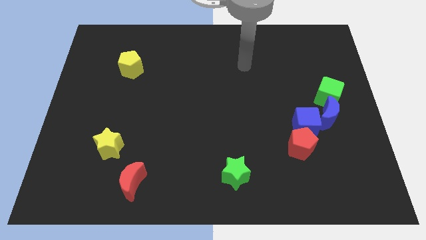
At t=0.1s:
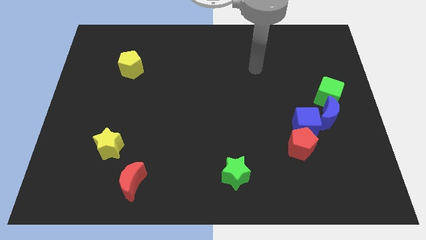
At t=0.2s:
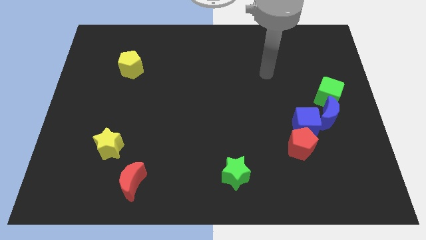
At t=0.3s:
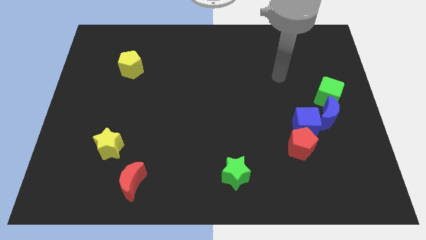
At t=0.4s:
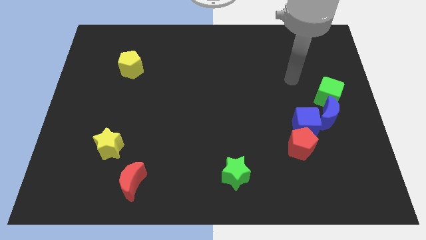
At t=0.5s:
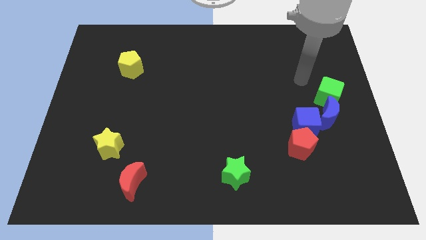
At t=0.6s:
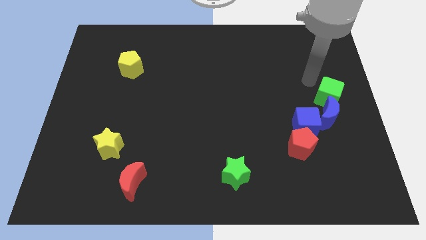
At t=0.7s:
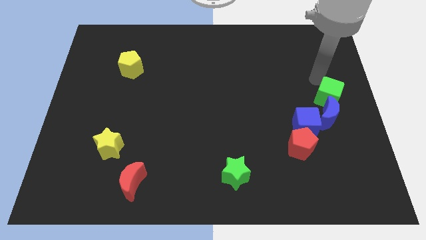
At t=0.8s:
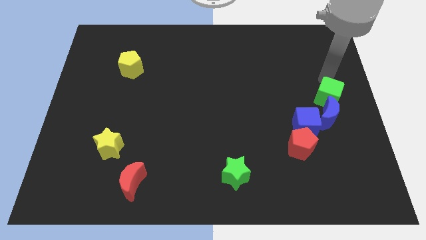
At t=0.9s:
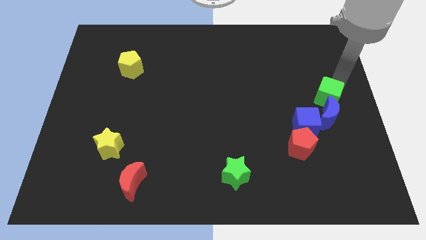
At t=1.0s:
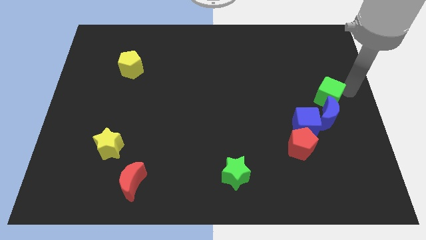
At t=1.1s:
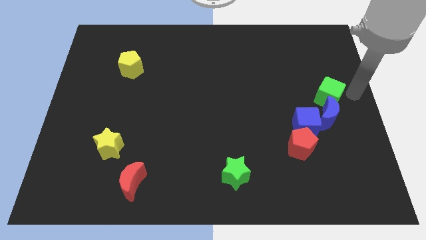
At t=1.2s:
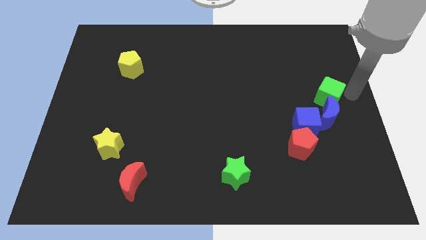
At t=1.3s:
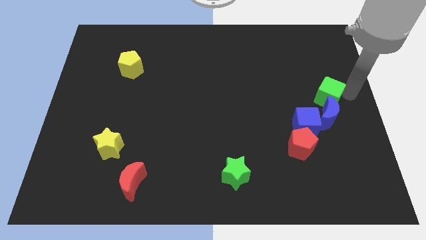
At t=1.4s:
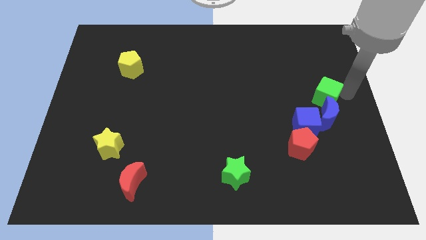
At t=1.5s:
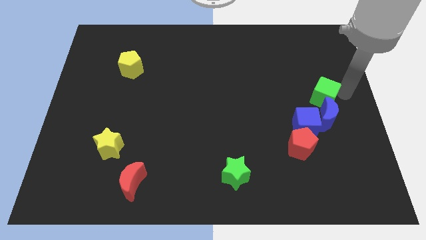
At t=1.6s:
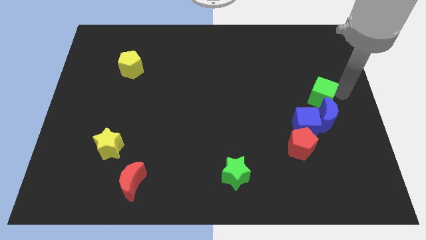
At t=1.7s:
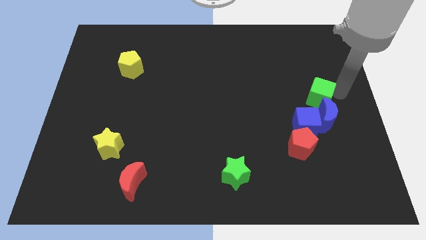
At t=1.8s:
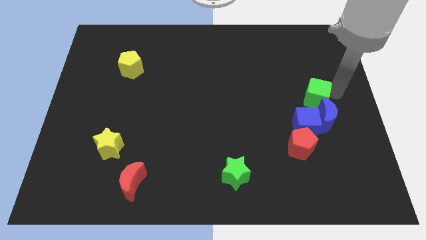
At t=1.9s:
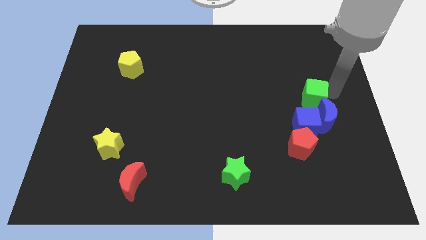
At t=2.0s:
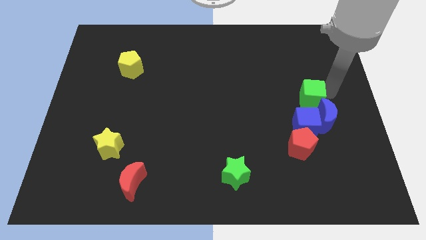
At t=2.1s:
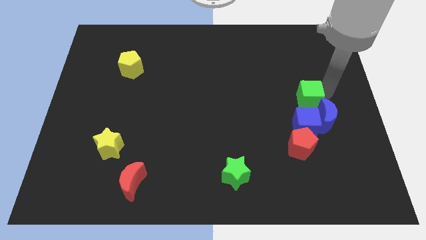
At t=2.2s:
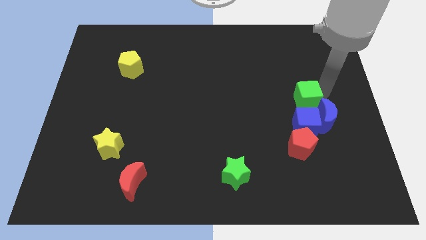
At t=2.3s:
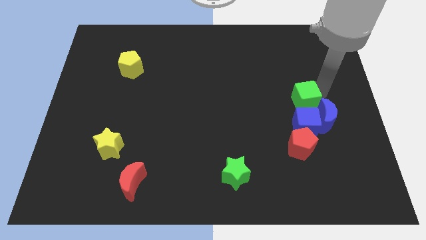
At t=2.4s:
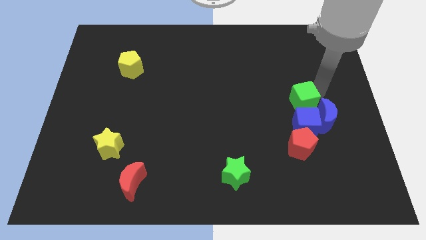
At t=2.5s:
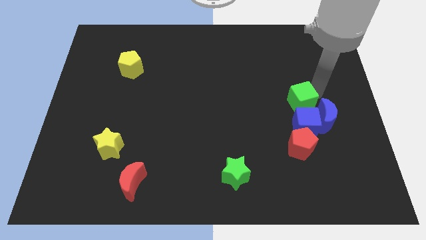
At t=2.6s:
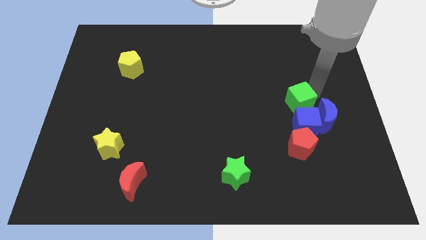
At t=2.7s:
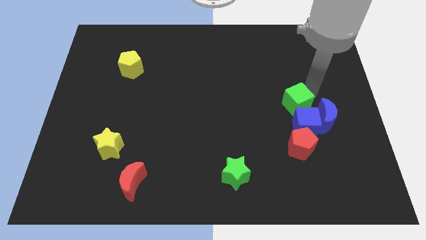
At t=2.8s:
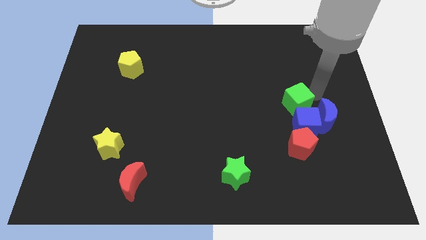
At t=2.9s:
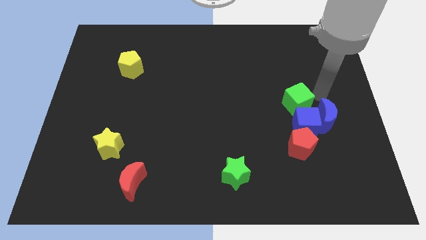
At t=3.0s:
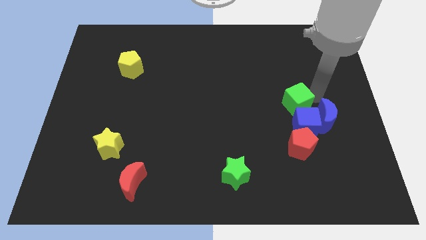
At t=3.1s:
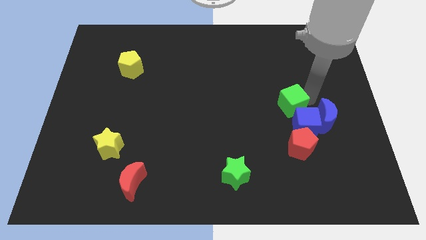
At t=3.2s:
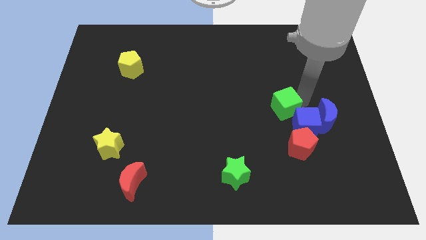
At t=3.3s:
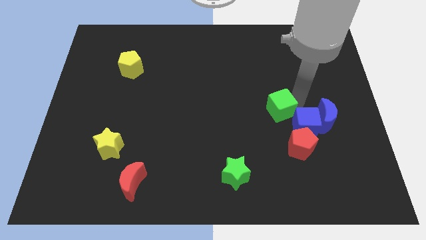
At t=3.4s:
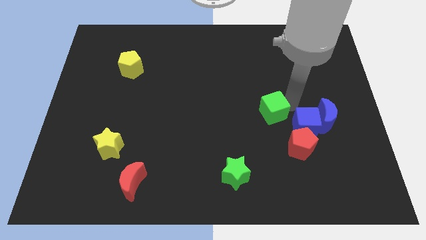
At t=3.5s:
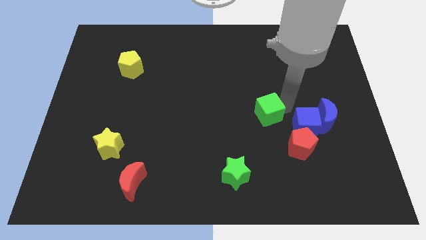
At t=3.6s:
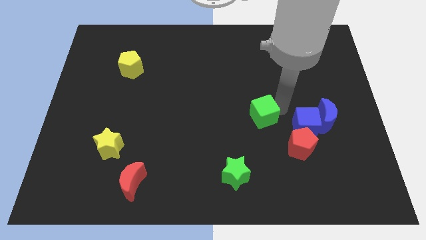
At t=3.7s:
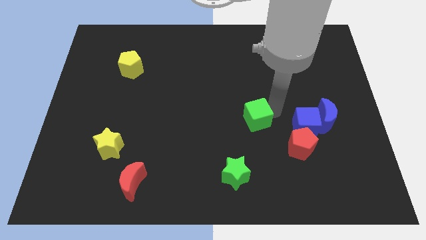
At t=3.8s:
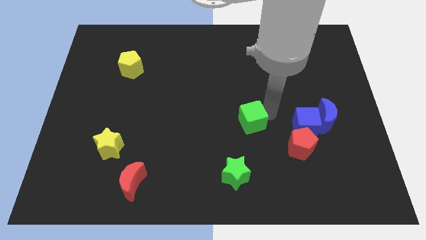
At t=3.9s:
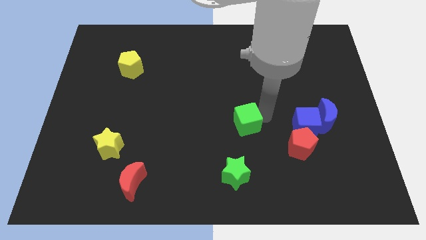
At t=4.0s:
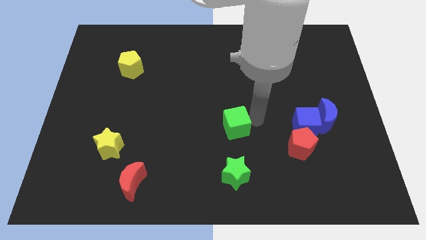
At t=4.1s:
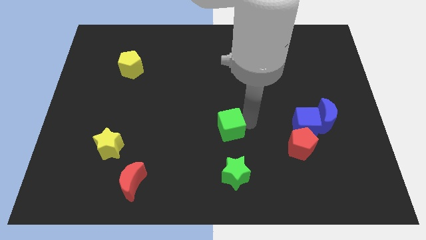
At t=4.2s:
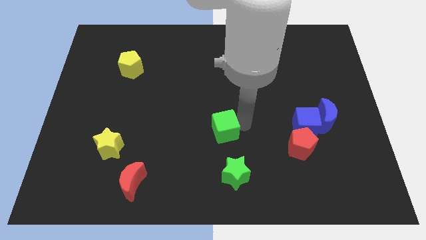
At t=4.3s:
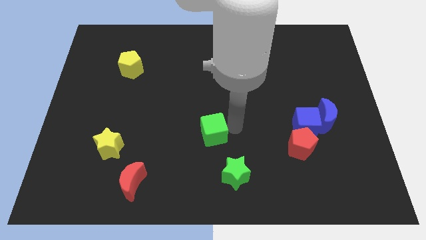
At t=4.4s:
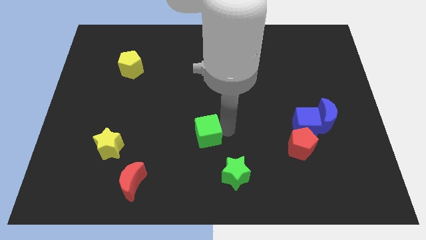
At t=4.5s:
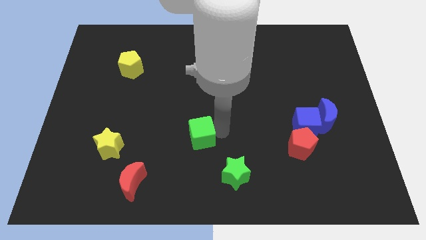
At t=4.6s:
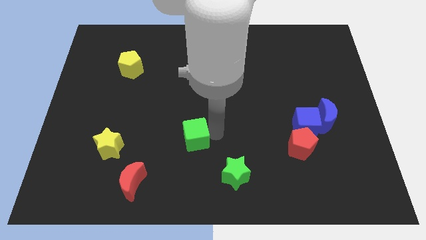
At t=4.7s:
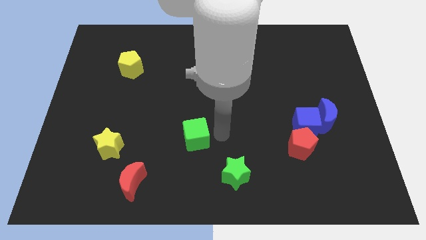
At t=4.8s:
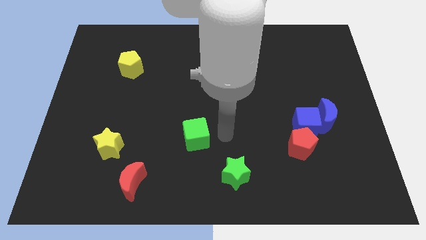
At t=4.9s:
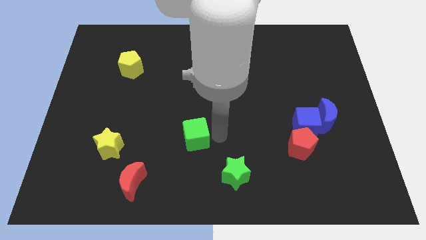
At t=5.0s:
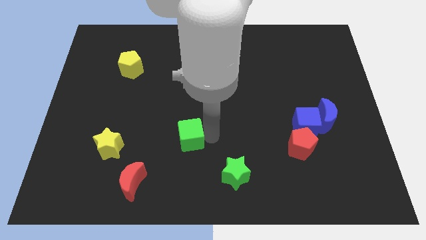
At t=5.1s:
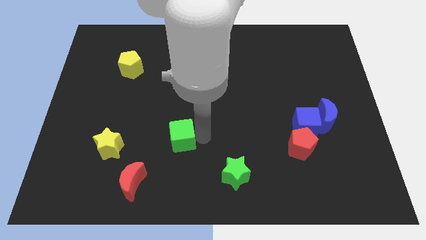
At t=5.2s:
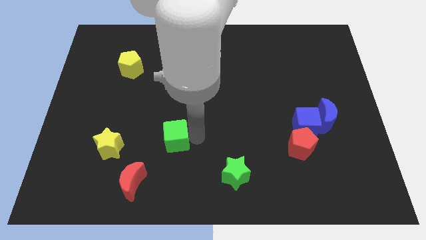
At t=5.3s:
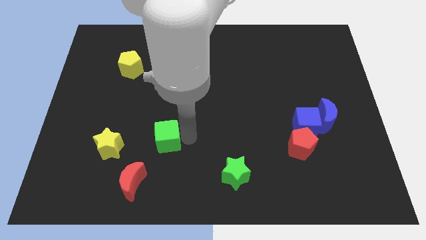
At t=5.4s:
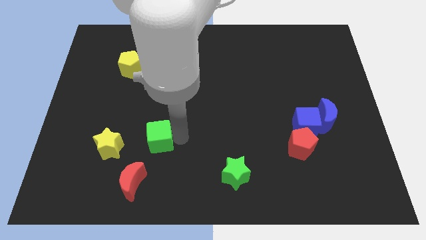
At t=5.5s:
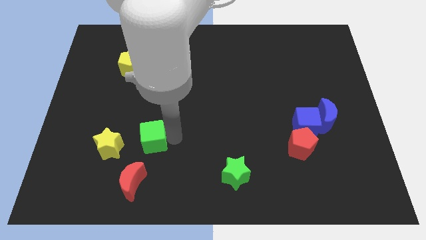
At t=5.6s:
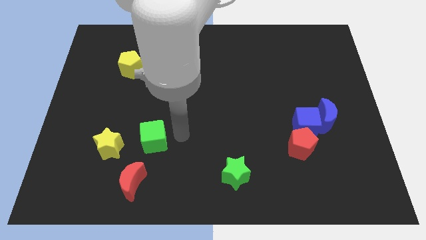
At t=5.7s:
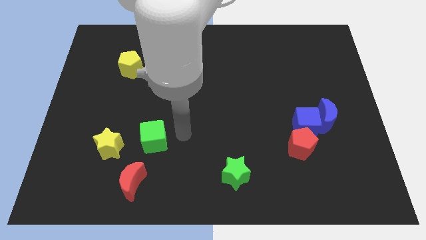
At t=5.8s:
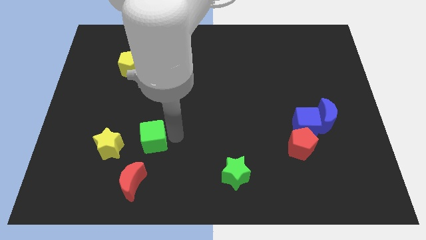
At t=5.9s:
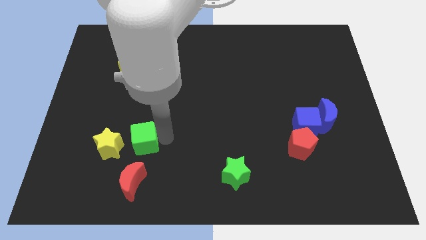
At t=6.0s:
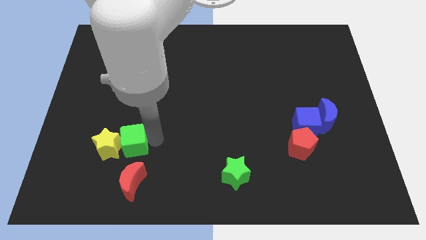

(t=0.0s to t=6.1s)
move the green cube to the yellow star

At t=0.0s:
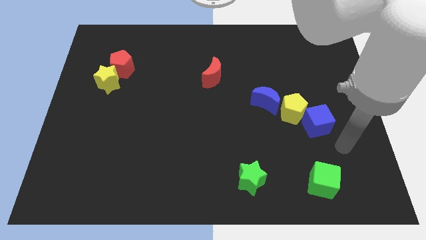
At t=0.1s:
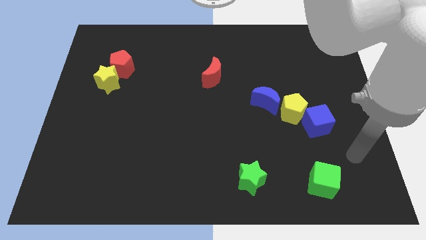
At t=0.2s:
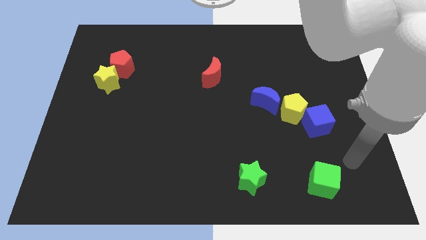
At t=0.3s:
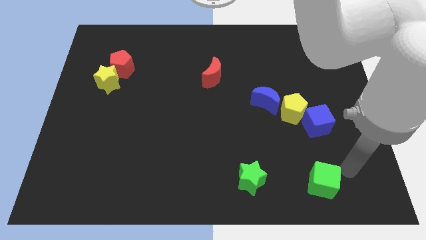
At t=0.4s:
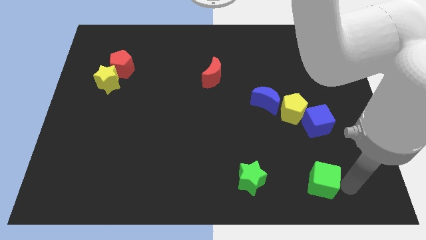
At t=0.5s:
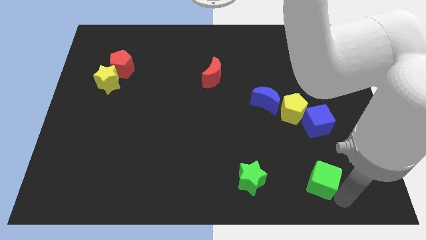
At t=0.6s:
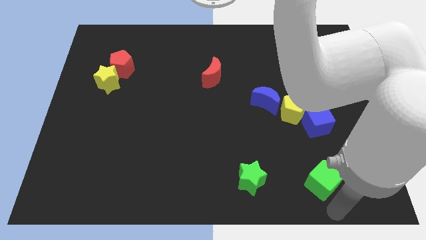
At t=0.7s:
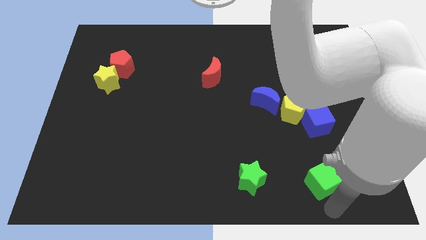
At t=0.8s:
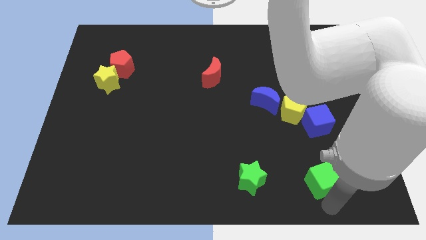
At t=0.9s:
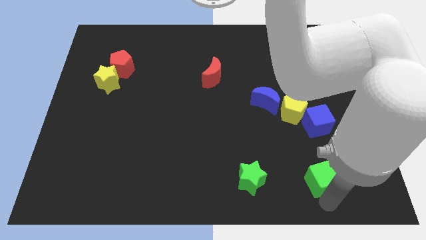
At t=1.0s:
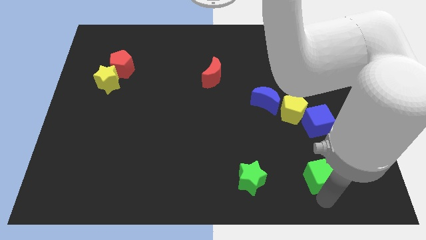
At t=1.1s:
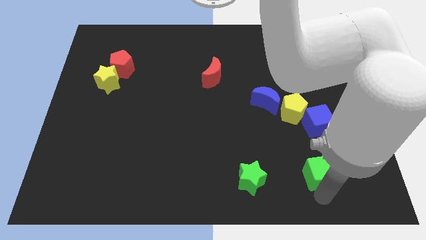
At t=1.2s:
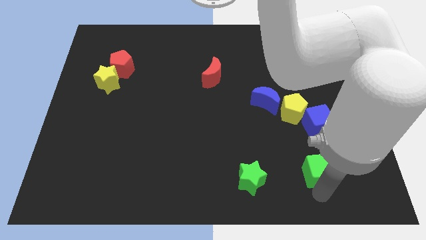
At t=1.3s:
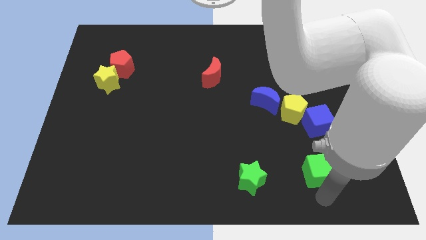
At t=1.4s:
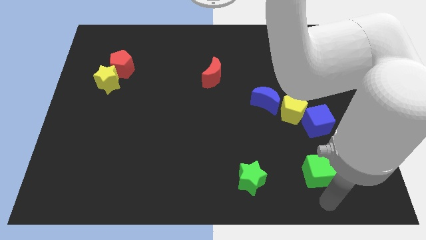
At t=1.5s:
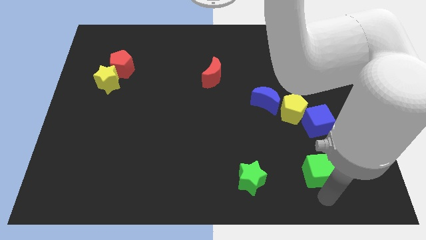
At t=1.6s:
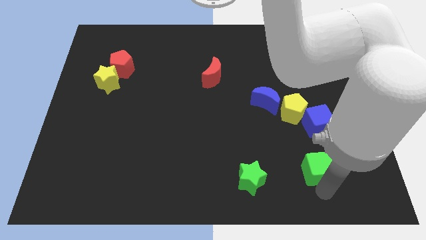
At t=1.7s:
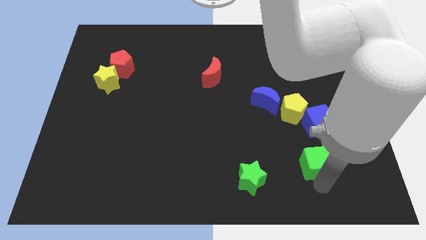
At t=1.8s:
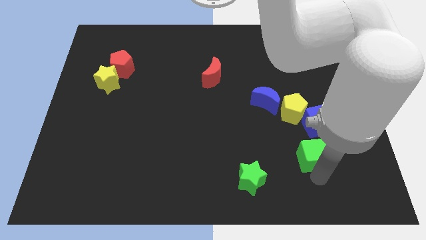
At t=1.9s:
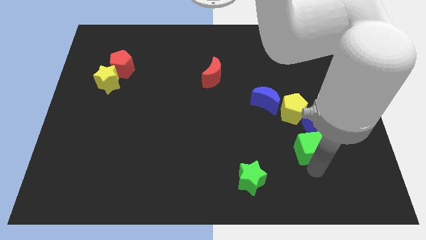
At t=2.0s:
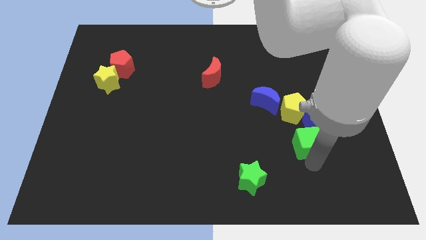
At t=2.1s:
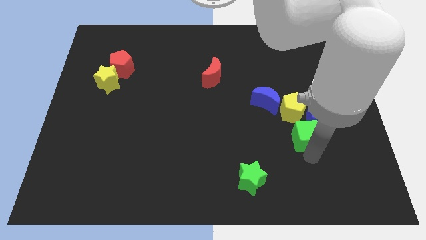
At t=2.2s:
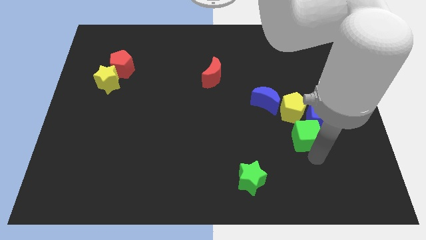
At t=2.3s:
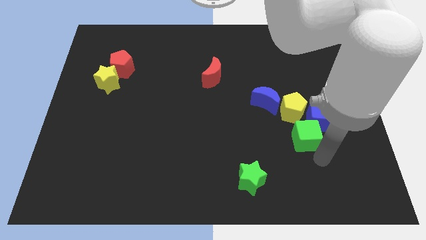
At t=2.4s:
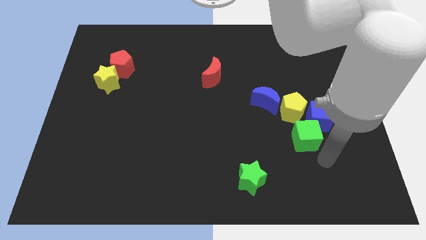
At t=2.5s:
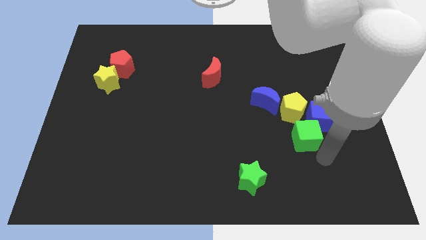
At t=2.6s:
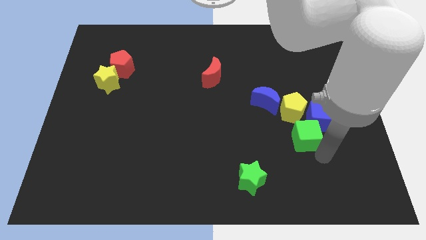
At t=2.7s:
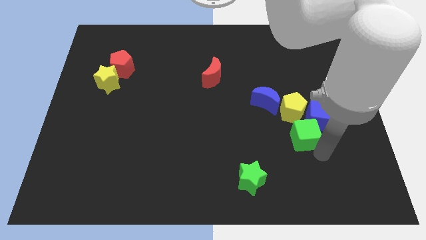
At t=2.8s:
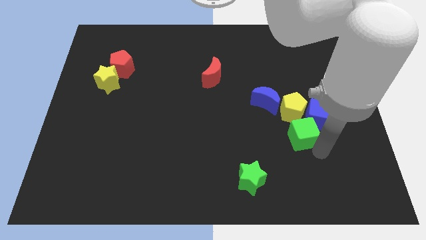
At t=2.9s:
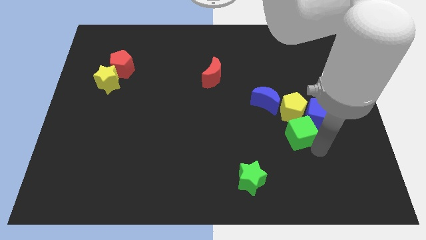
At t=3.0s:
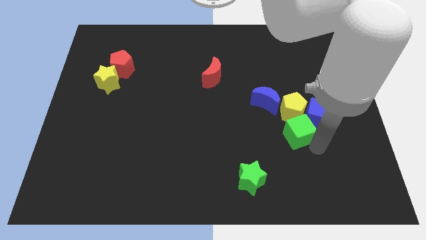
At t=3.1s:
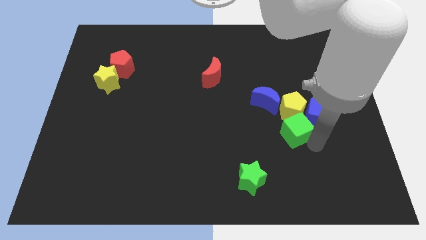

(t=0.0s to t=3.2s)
move the green cube next to the yellow pentagon
